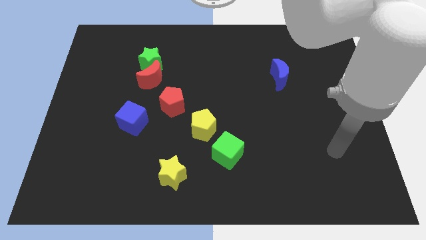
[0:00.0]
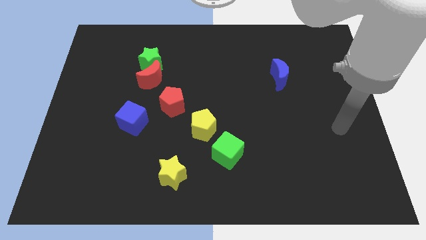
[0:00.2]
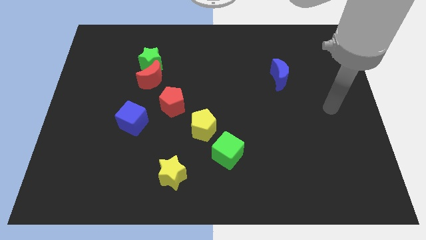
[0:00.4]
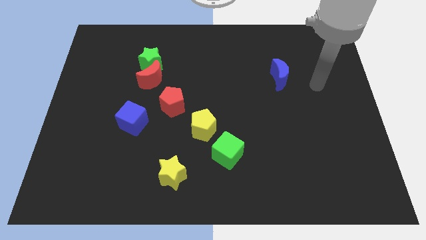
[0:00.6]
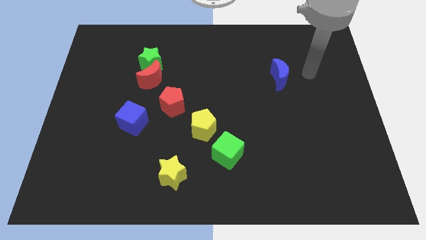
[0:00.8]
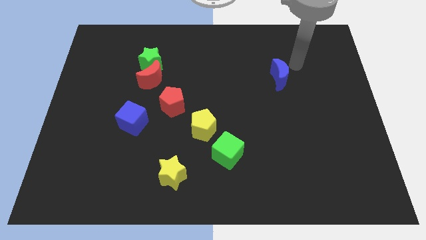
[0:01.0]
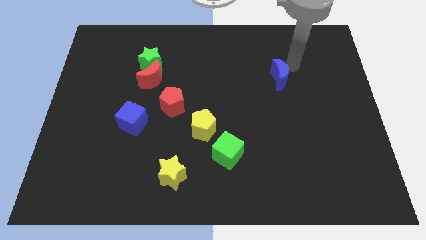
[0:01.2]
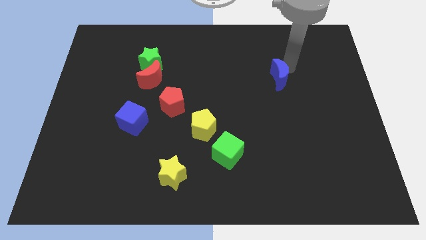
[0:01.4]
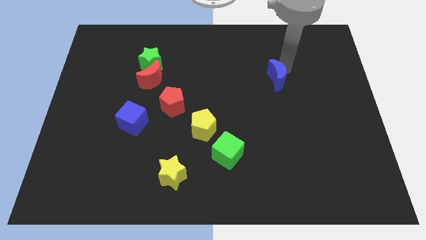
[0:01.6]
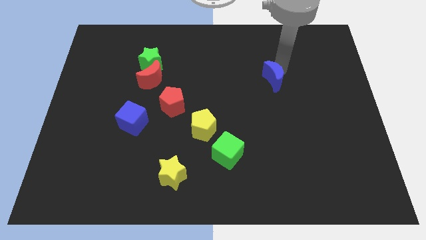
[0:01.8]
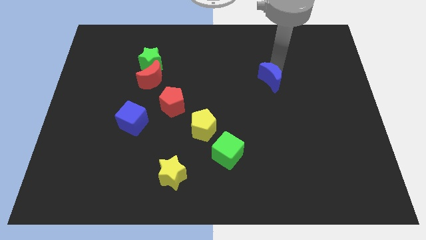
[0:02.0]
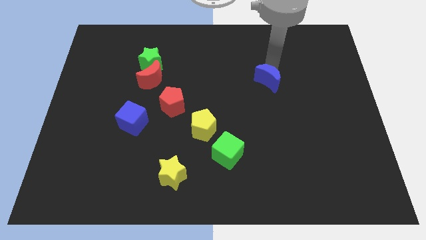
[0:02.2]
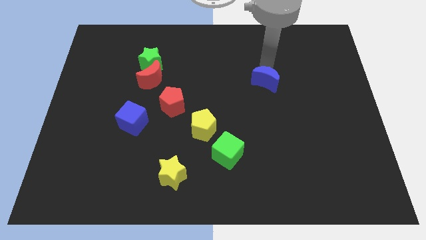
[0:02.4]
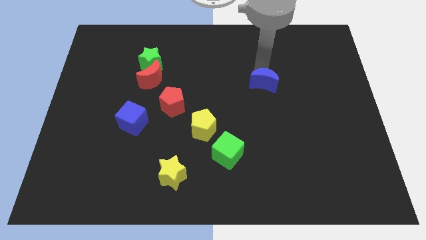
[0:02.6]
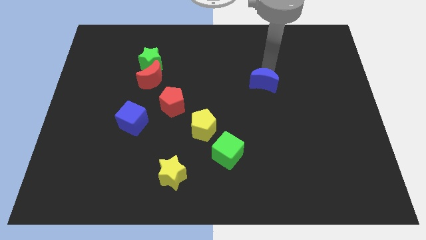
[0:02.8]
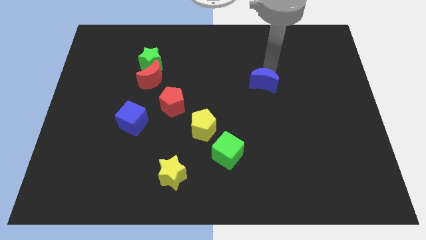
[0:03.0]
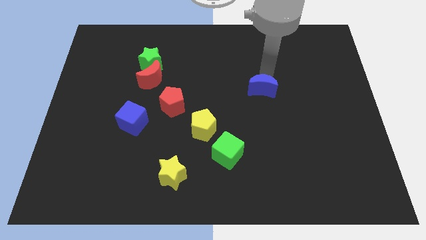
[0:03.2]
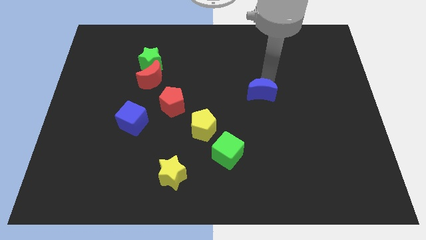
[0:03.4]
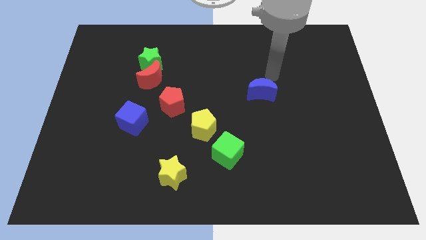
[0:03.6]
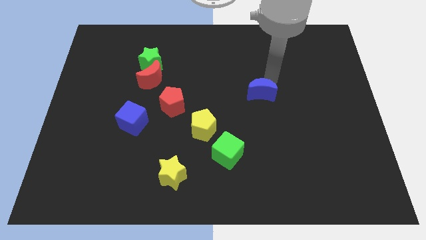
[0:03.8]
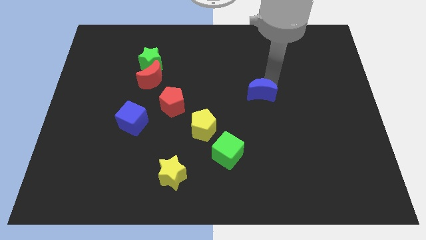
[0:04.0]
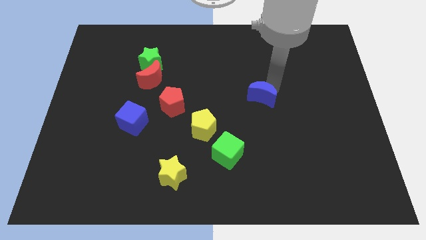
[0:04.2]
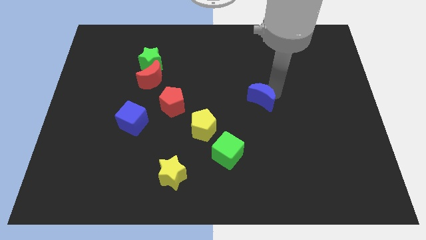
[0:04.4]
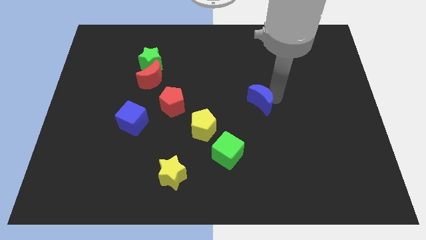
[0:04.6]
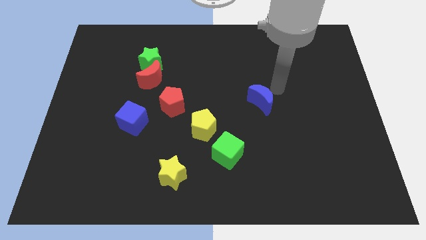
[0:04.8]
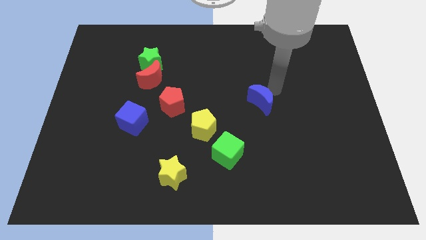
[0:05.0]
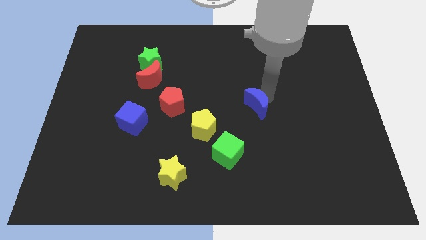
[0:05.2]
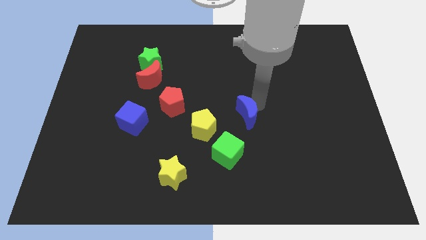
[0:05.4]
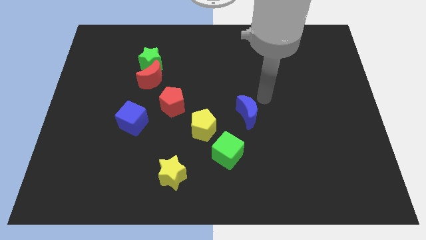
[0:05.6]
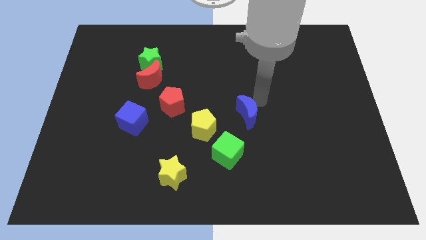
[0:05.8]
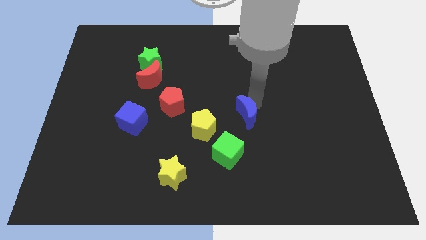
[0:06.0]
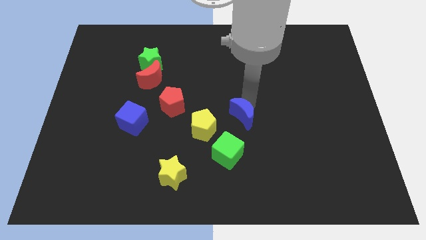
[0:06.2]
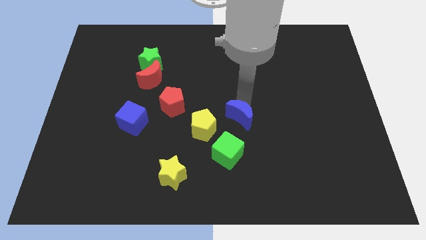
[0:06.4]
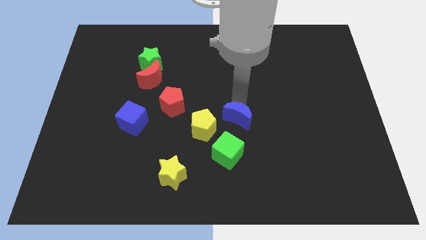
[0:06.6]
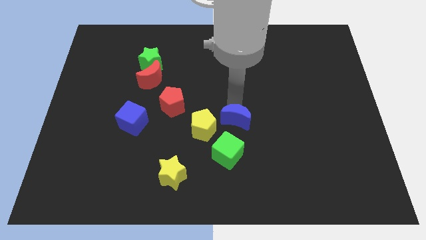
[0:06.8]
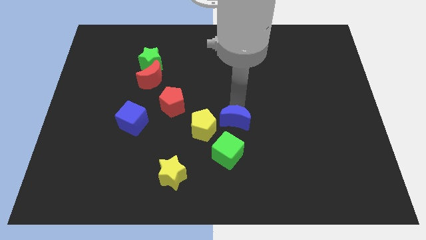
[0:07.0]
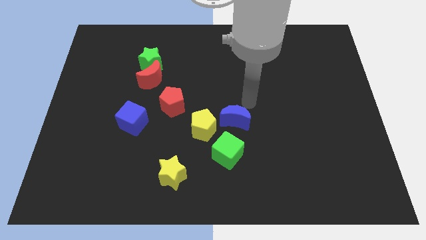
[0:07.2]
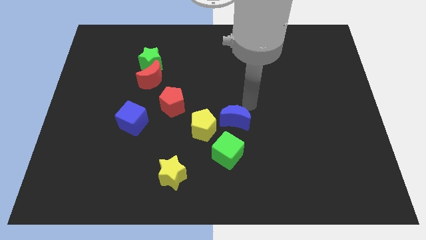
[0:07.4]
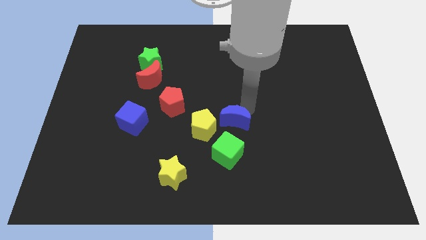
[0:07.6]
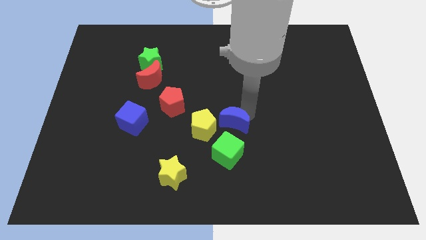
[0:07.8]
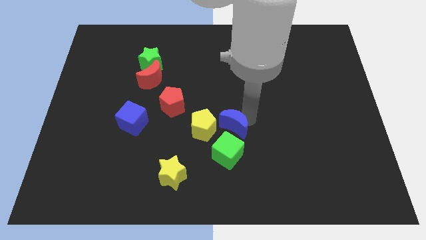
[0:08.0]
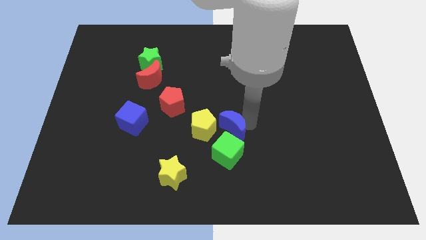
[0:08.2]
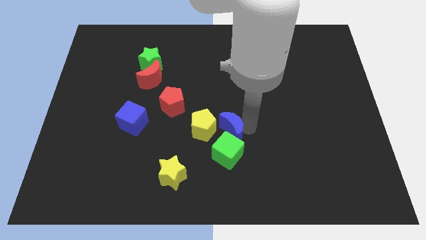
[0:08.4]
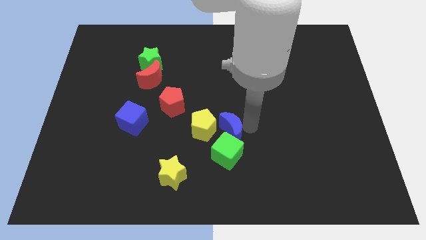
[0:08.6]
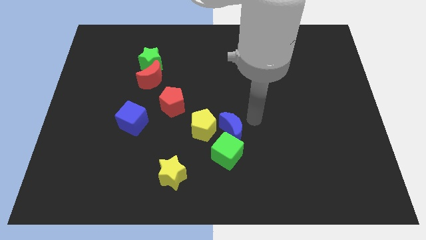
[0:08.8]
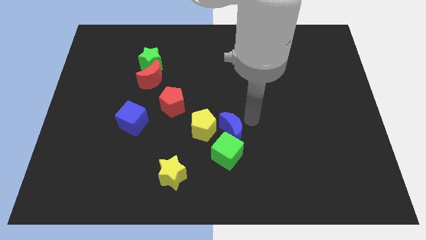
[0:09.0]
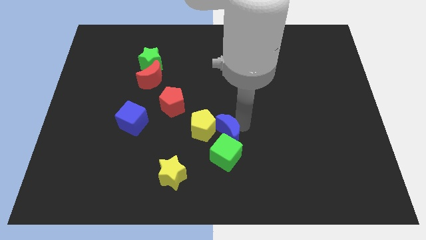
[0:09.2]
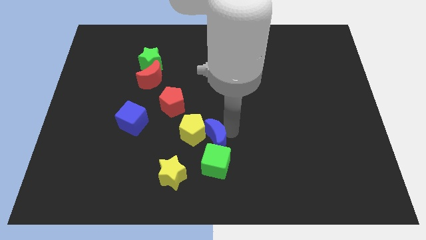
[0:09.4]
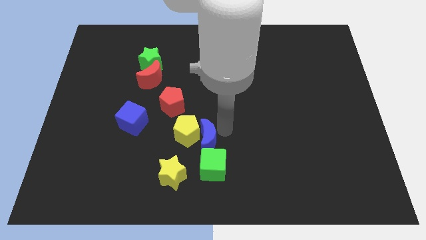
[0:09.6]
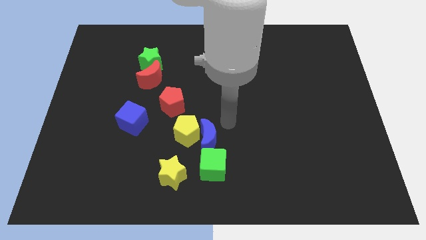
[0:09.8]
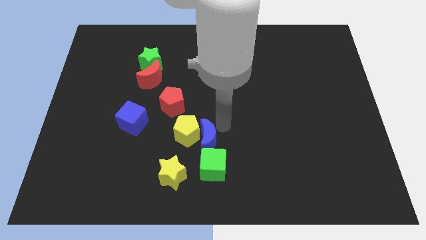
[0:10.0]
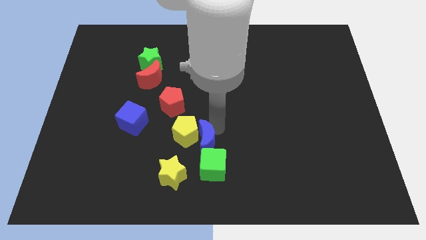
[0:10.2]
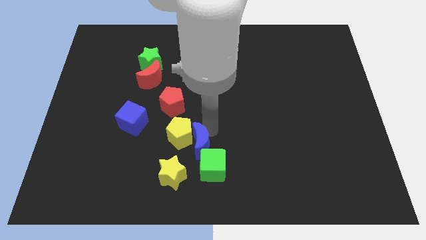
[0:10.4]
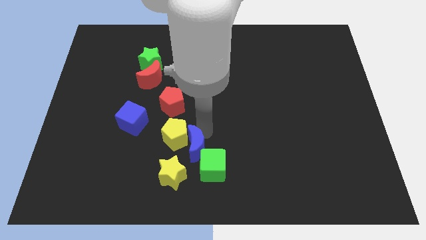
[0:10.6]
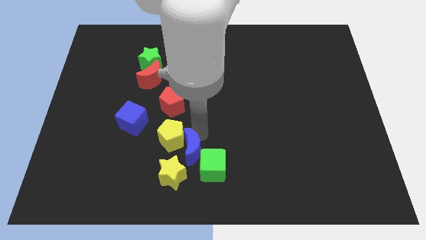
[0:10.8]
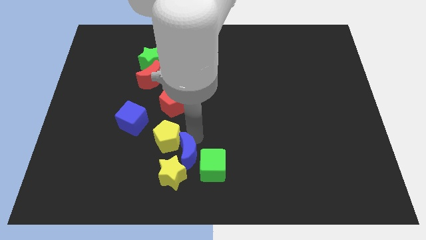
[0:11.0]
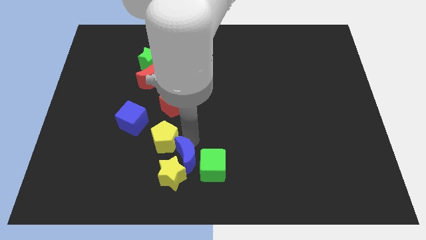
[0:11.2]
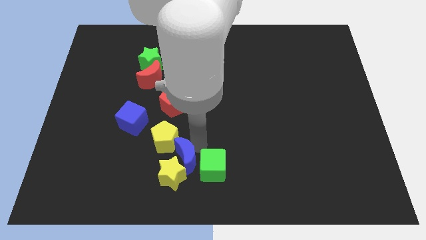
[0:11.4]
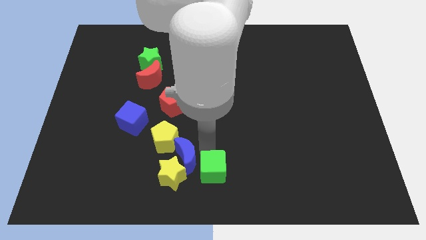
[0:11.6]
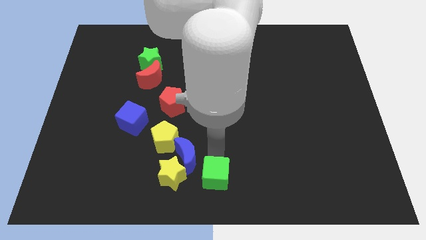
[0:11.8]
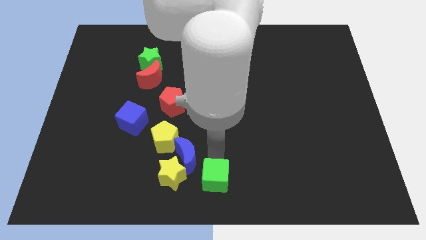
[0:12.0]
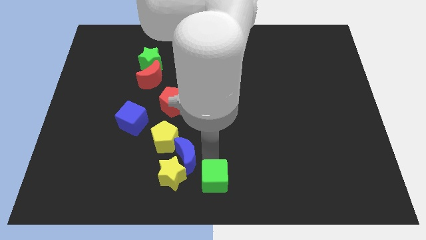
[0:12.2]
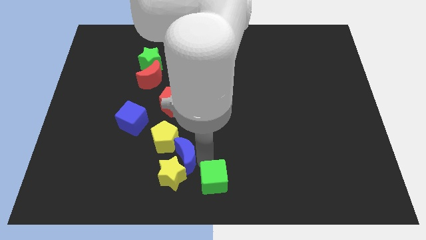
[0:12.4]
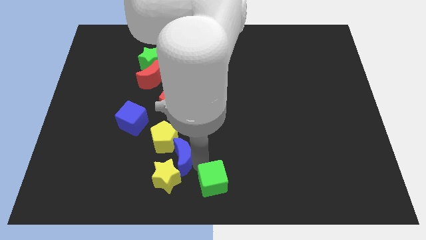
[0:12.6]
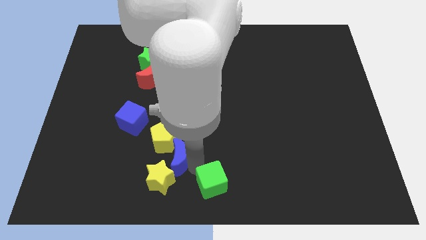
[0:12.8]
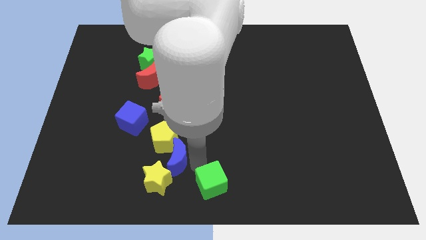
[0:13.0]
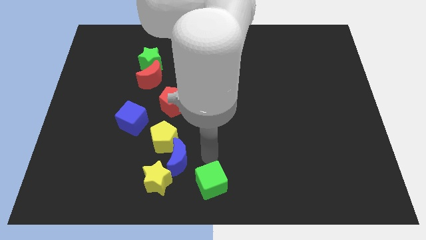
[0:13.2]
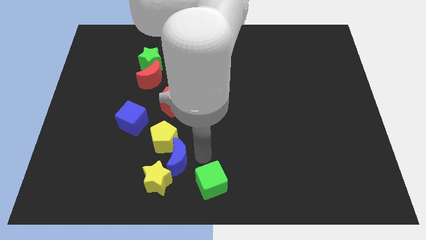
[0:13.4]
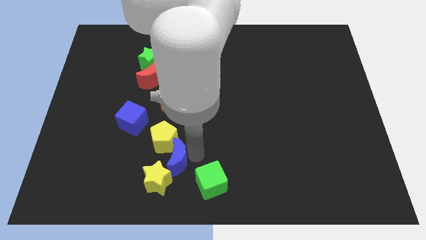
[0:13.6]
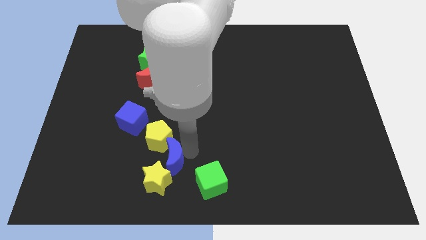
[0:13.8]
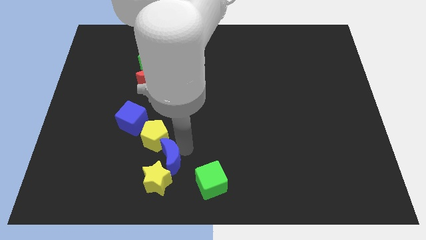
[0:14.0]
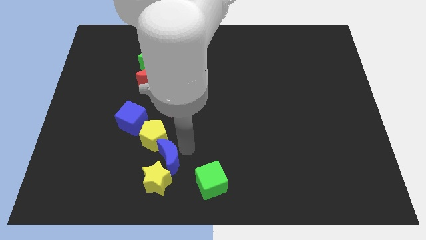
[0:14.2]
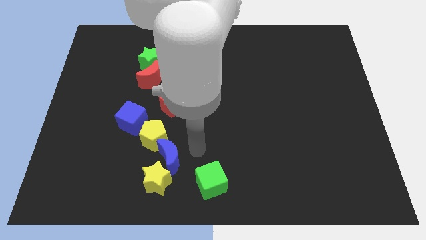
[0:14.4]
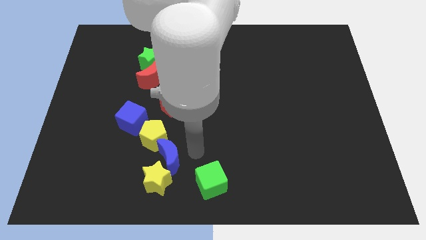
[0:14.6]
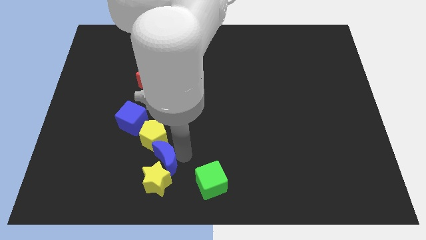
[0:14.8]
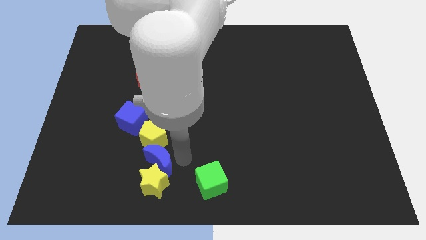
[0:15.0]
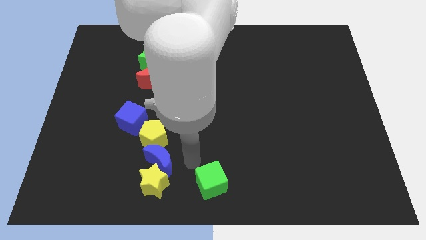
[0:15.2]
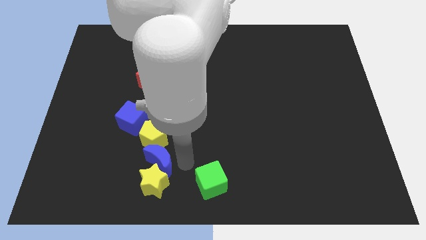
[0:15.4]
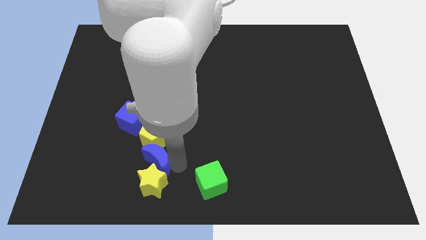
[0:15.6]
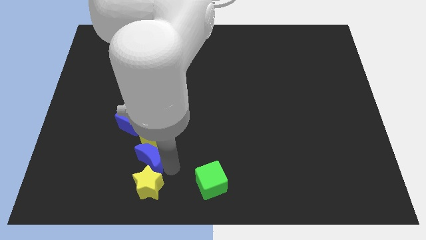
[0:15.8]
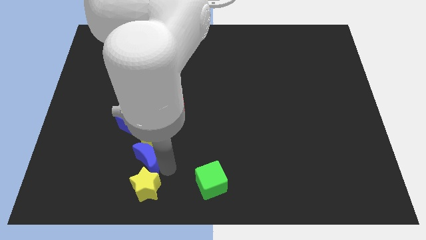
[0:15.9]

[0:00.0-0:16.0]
move the blue moon to the bottom of the blue cube
